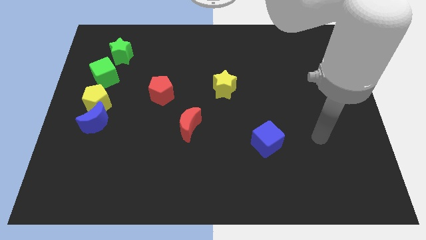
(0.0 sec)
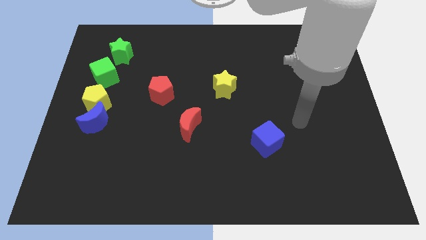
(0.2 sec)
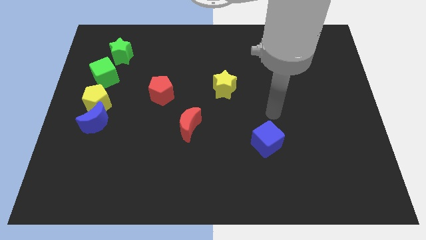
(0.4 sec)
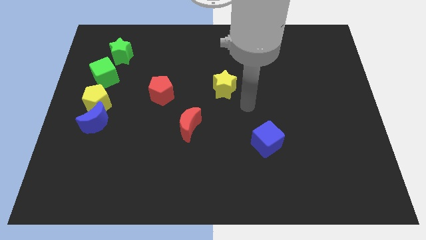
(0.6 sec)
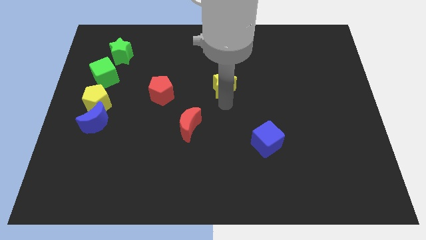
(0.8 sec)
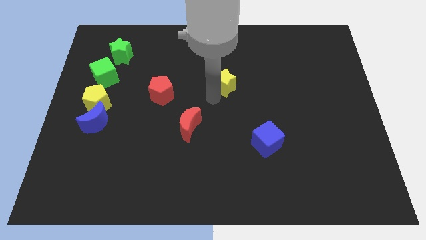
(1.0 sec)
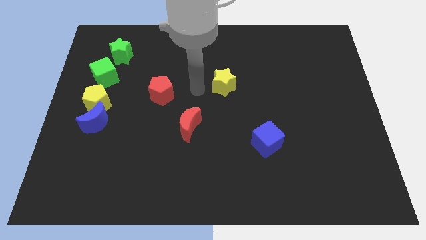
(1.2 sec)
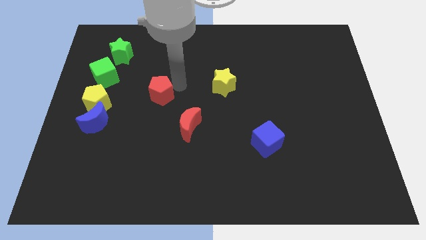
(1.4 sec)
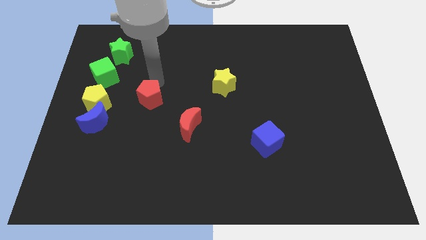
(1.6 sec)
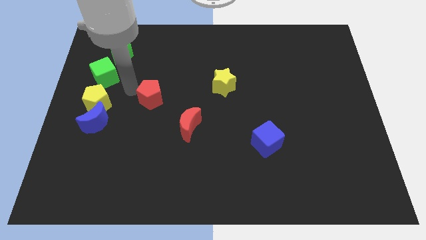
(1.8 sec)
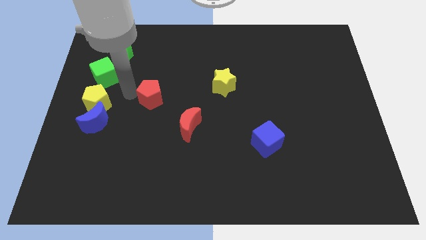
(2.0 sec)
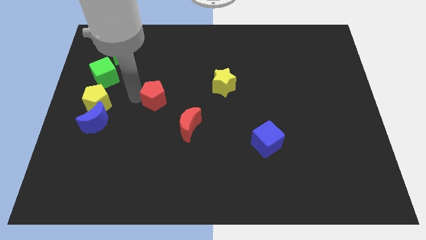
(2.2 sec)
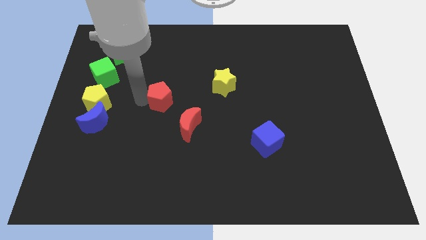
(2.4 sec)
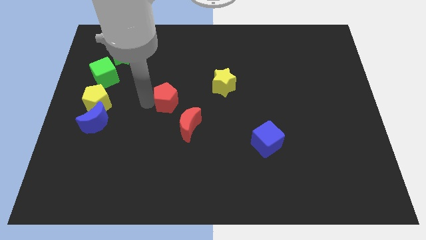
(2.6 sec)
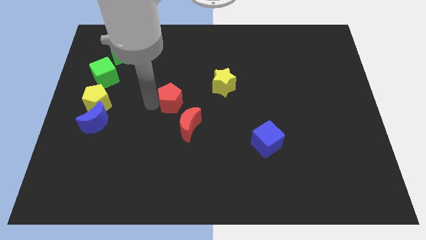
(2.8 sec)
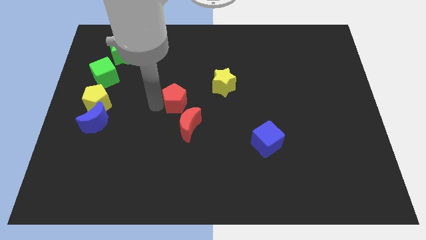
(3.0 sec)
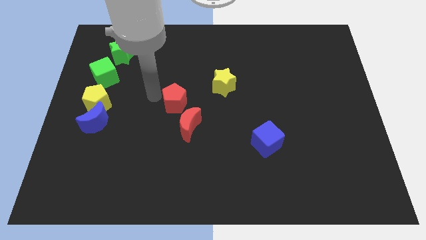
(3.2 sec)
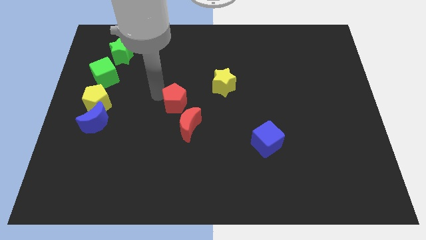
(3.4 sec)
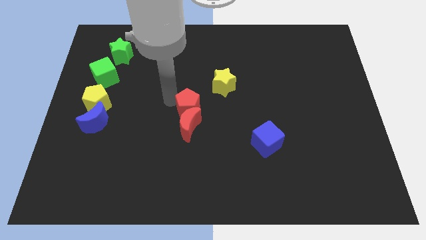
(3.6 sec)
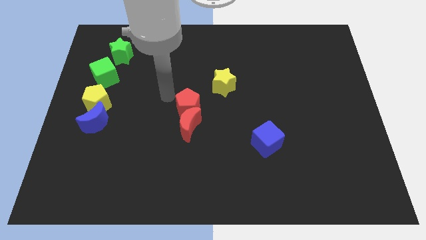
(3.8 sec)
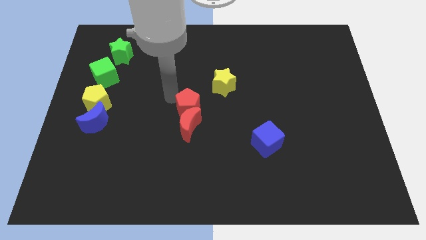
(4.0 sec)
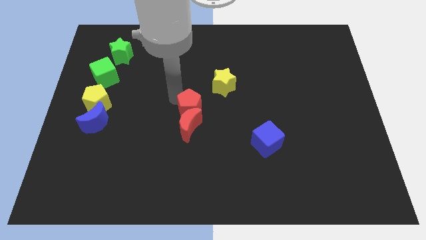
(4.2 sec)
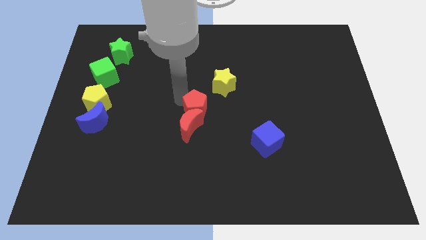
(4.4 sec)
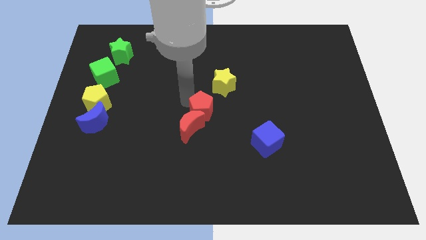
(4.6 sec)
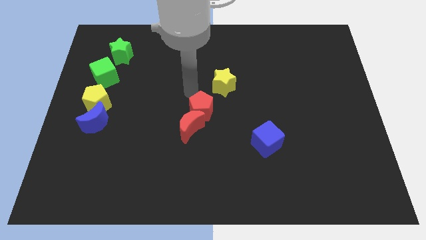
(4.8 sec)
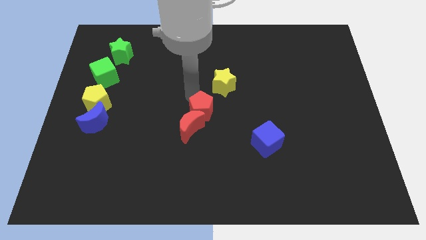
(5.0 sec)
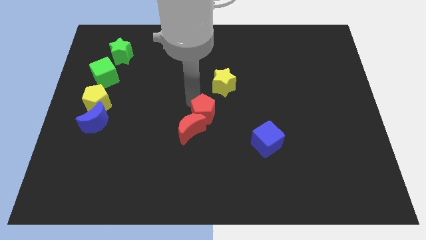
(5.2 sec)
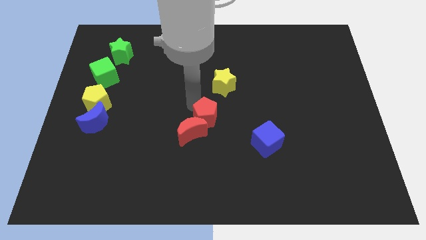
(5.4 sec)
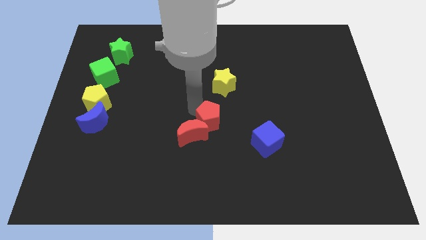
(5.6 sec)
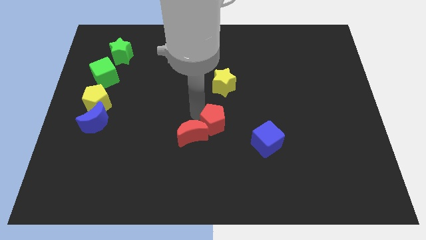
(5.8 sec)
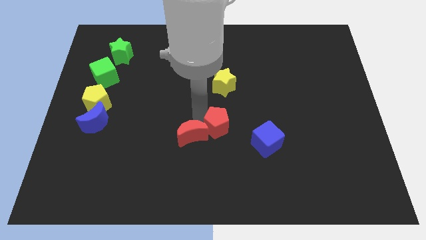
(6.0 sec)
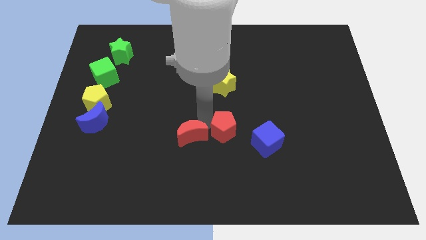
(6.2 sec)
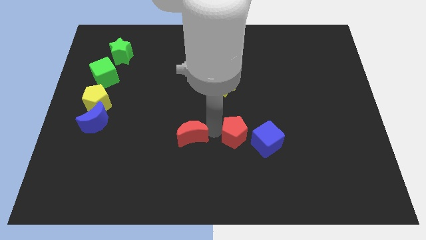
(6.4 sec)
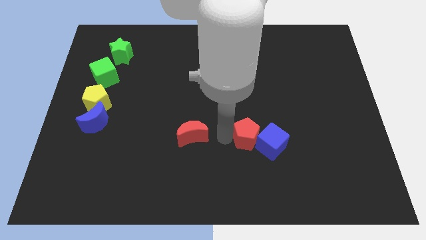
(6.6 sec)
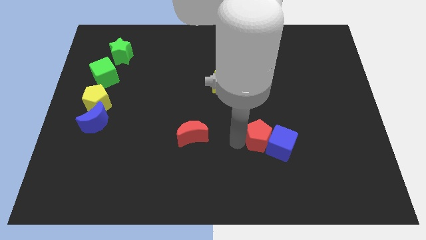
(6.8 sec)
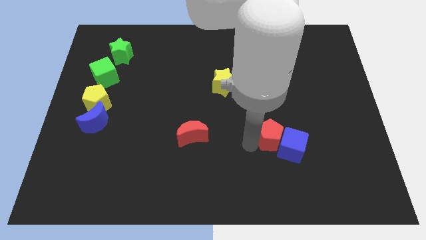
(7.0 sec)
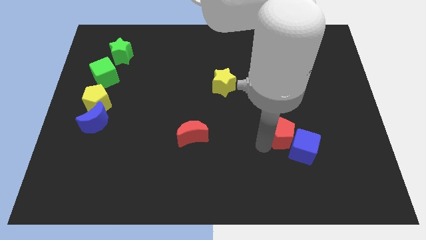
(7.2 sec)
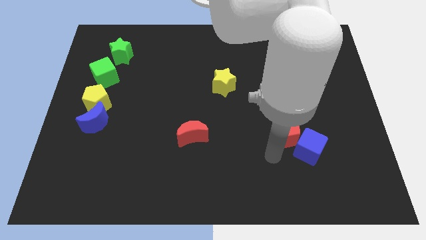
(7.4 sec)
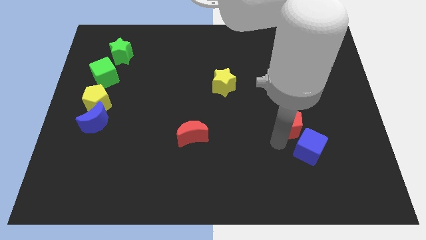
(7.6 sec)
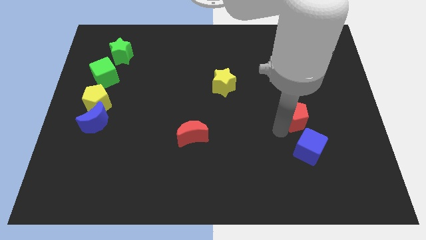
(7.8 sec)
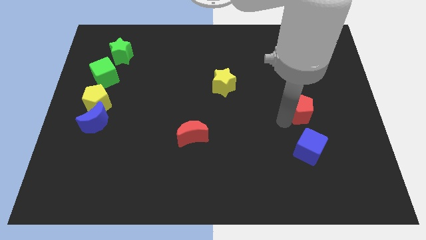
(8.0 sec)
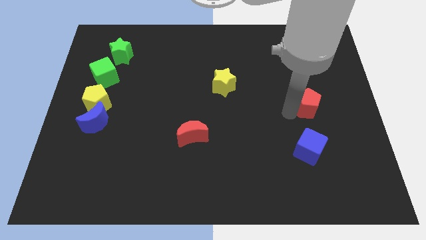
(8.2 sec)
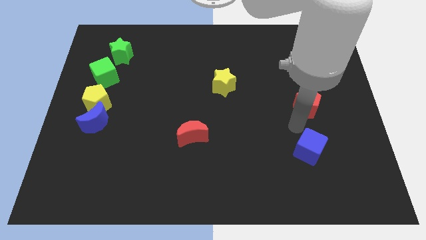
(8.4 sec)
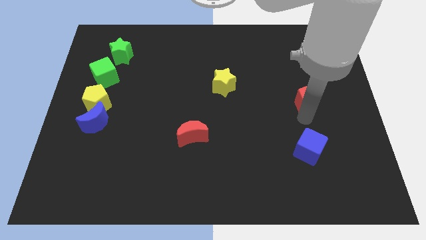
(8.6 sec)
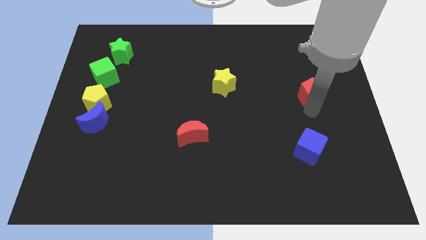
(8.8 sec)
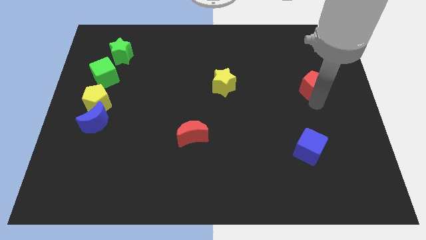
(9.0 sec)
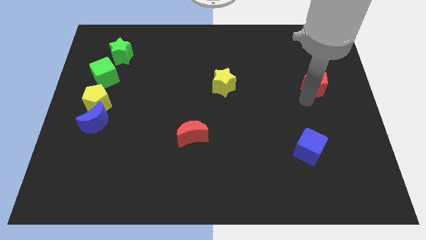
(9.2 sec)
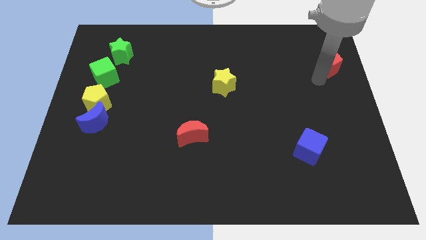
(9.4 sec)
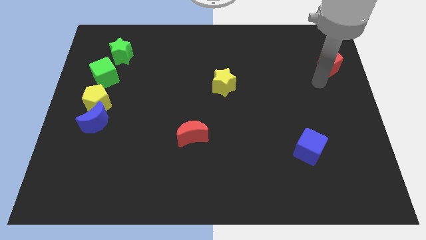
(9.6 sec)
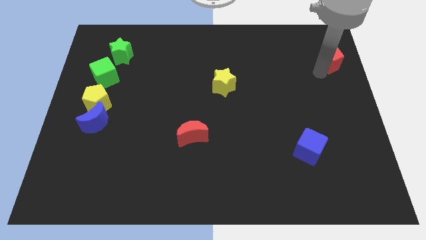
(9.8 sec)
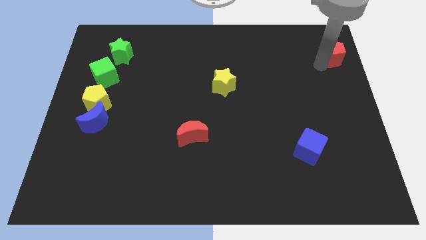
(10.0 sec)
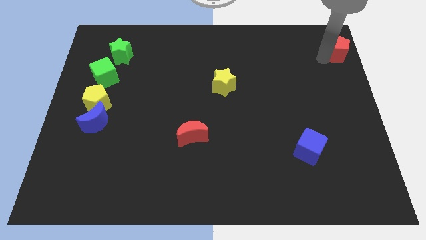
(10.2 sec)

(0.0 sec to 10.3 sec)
slide the red pentagon to the top right

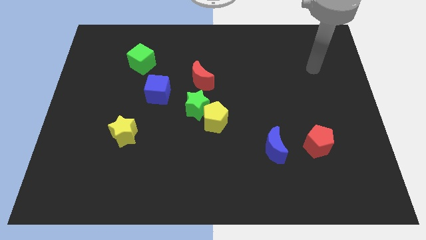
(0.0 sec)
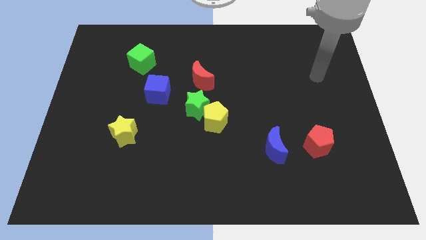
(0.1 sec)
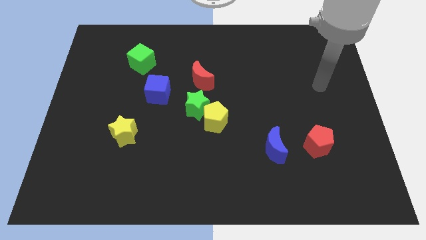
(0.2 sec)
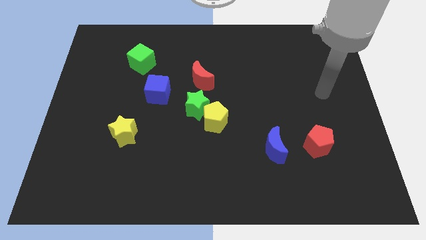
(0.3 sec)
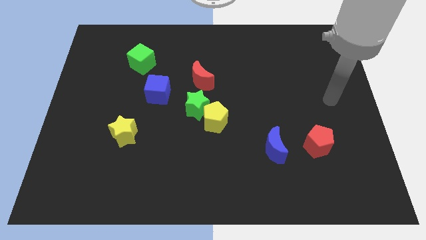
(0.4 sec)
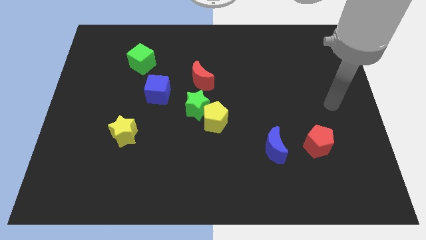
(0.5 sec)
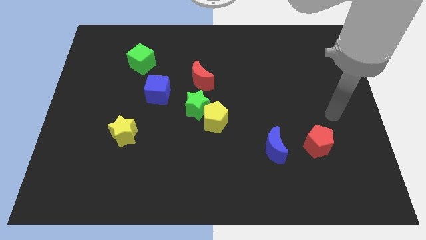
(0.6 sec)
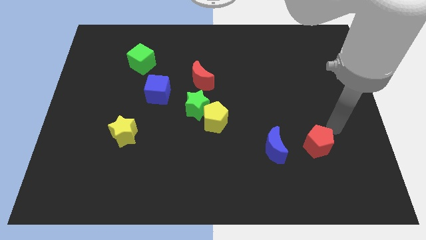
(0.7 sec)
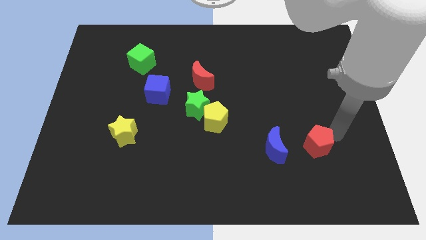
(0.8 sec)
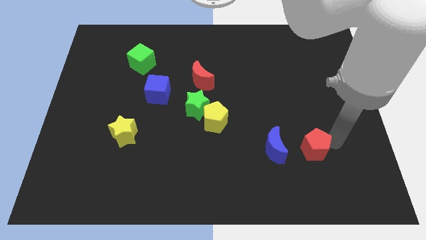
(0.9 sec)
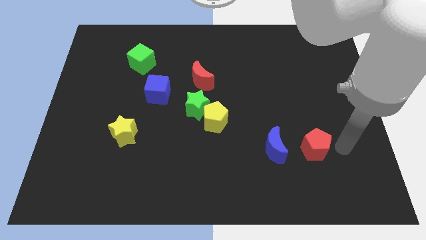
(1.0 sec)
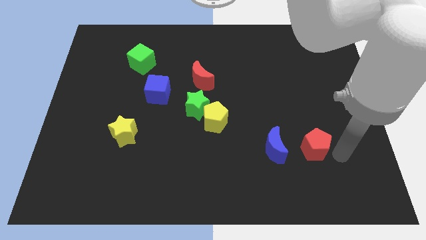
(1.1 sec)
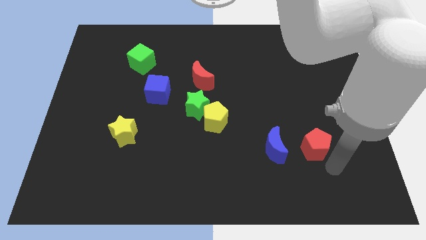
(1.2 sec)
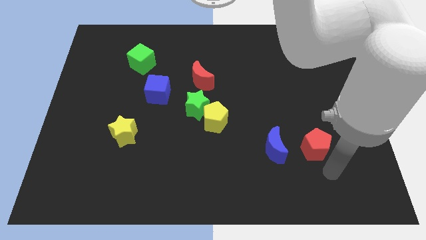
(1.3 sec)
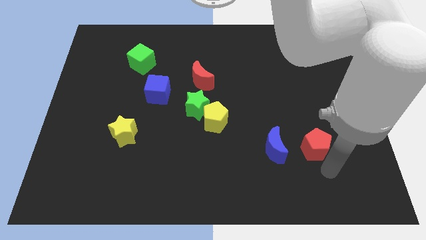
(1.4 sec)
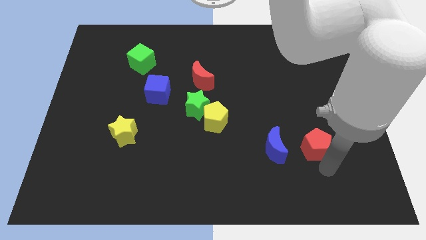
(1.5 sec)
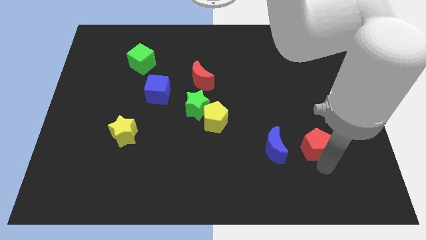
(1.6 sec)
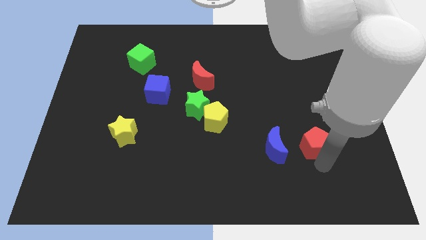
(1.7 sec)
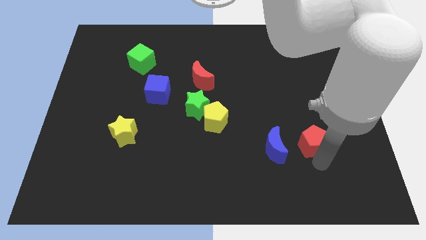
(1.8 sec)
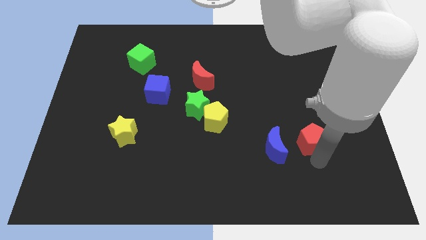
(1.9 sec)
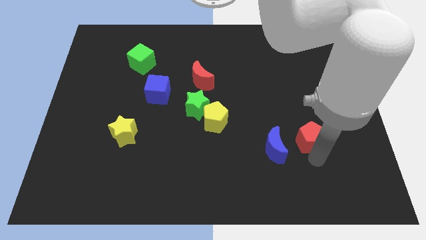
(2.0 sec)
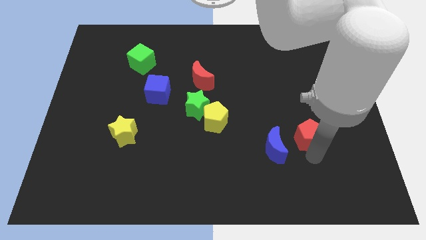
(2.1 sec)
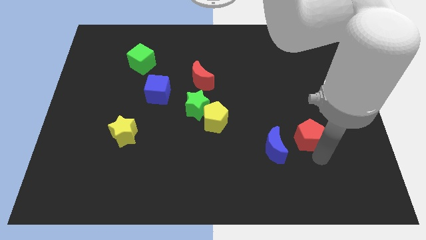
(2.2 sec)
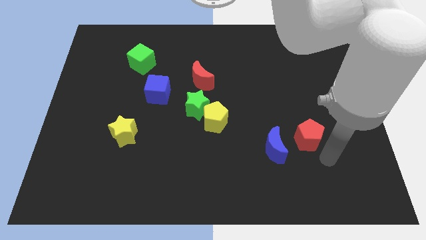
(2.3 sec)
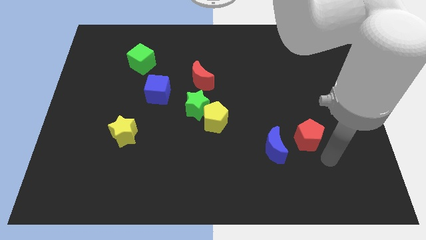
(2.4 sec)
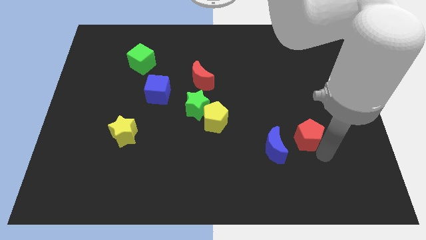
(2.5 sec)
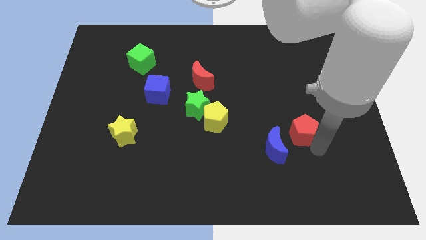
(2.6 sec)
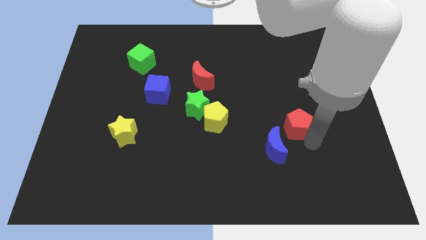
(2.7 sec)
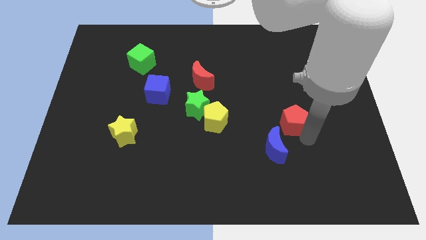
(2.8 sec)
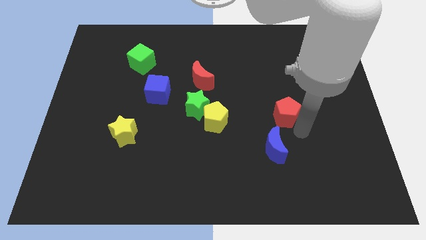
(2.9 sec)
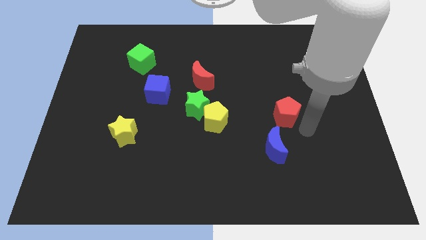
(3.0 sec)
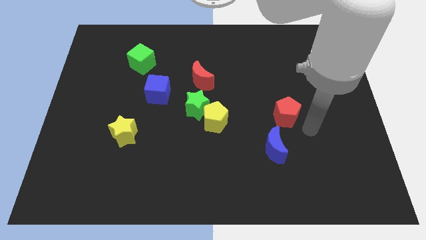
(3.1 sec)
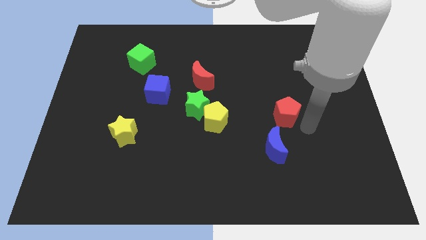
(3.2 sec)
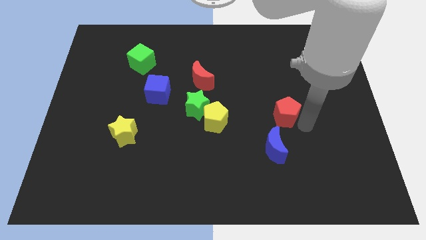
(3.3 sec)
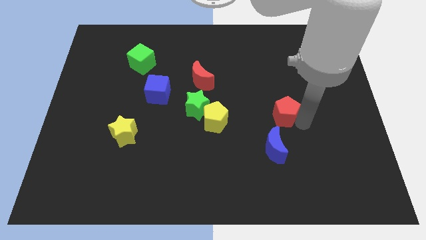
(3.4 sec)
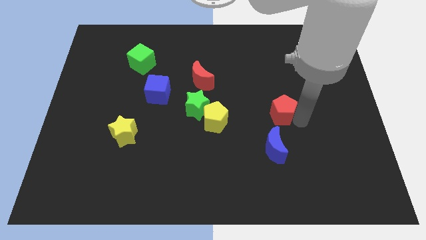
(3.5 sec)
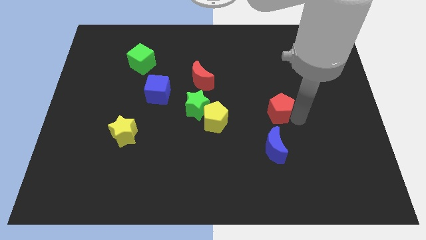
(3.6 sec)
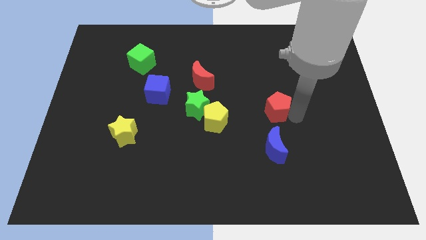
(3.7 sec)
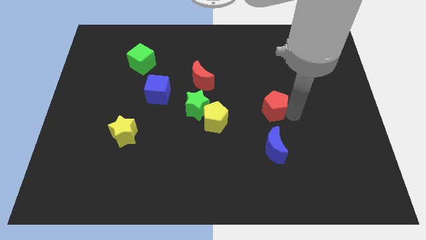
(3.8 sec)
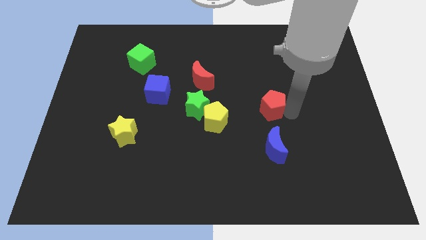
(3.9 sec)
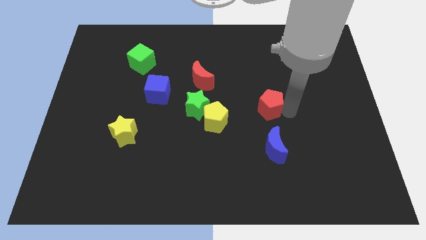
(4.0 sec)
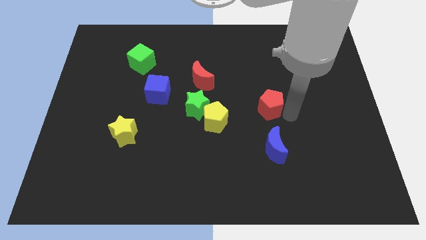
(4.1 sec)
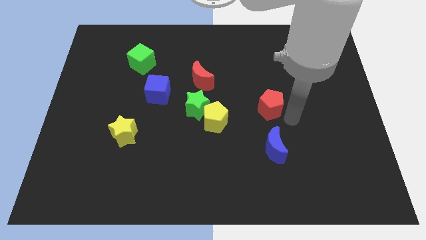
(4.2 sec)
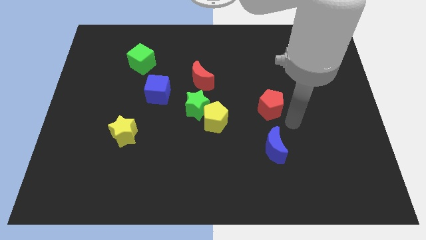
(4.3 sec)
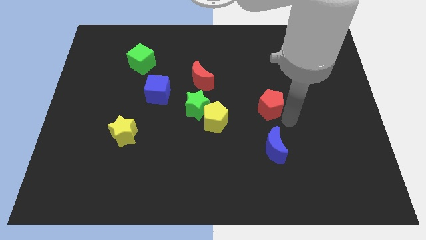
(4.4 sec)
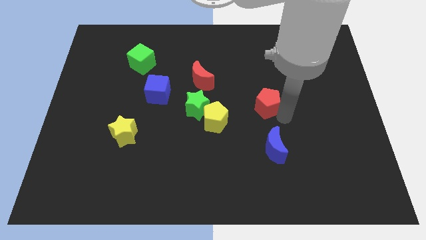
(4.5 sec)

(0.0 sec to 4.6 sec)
put the red pentagon to the center
